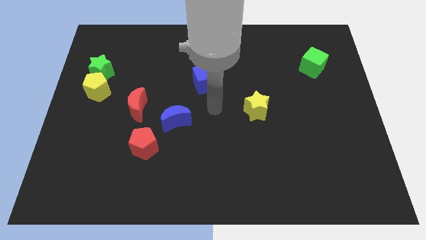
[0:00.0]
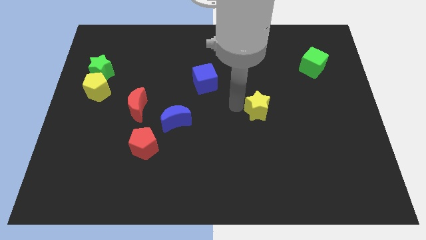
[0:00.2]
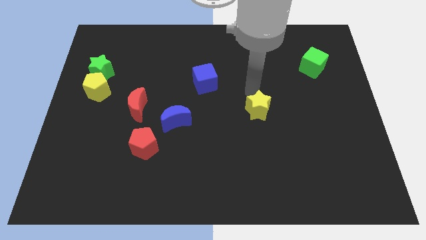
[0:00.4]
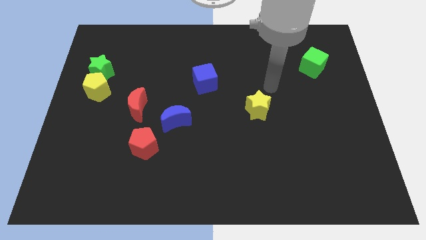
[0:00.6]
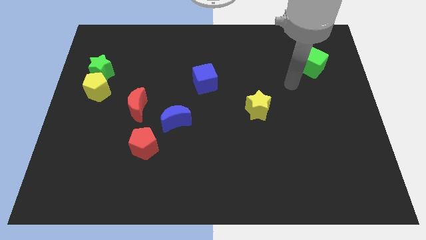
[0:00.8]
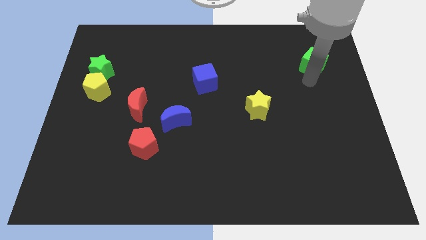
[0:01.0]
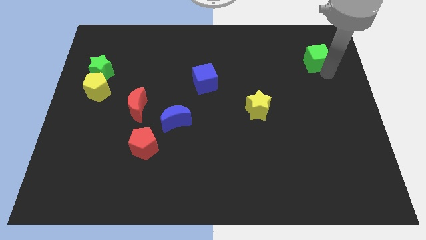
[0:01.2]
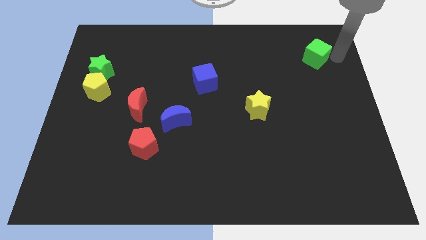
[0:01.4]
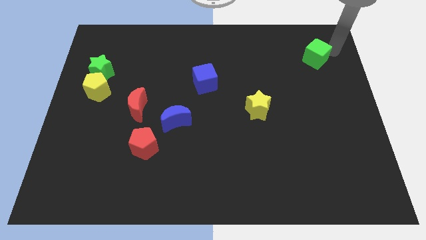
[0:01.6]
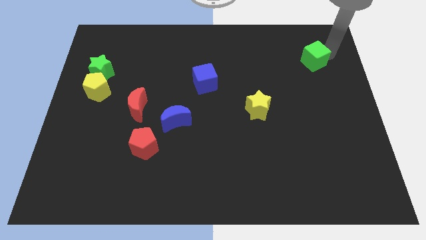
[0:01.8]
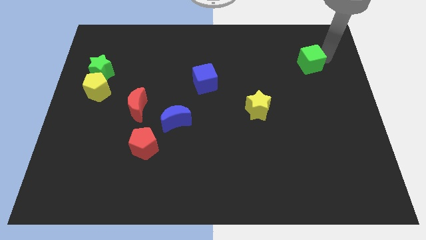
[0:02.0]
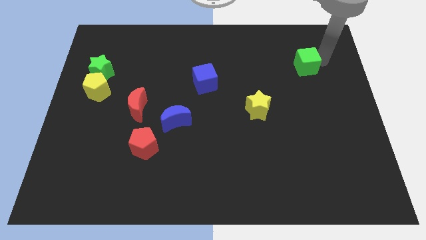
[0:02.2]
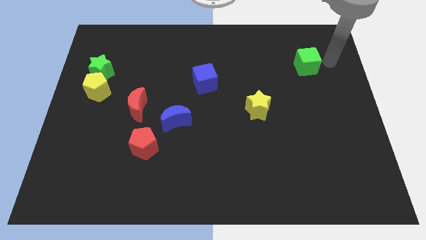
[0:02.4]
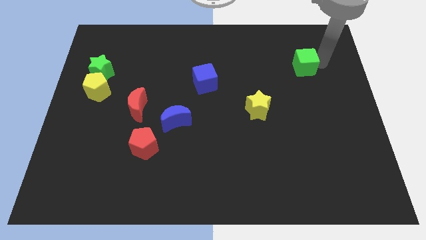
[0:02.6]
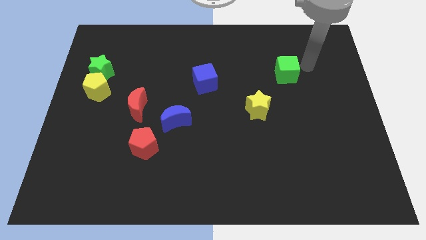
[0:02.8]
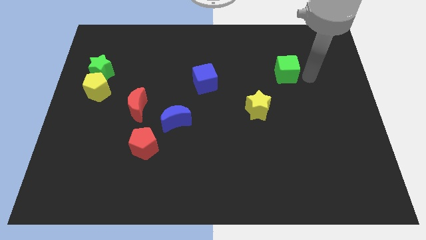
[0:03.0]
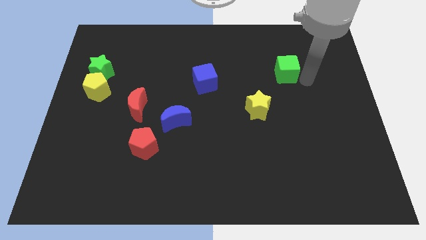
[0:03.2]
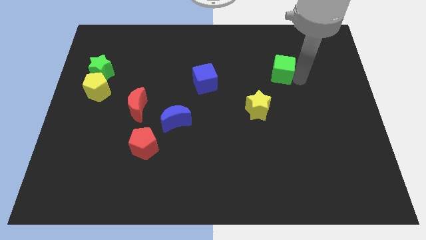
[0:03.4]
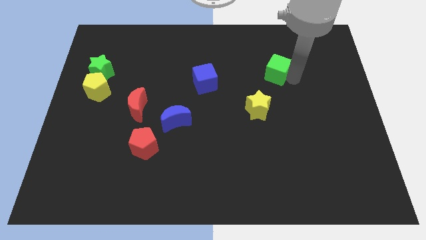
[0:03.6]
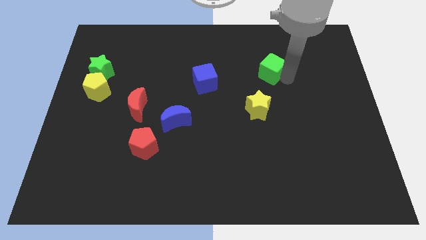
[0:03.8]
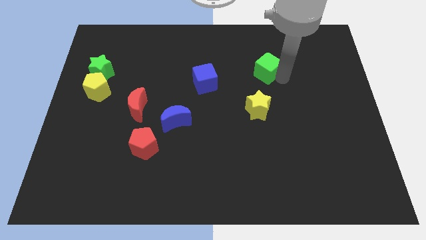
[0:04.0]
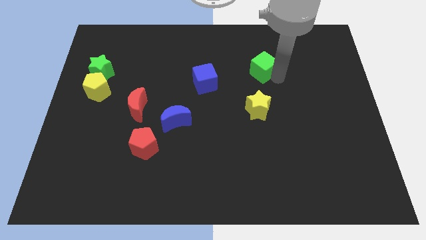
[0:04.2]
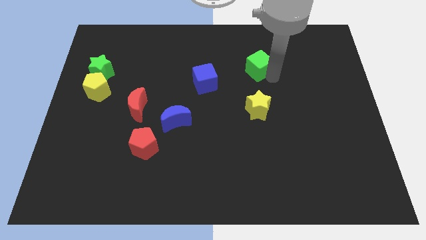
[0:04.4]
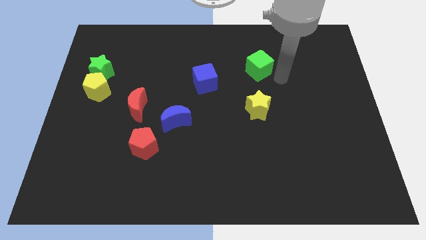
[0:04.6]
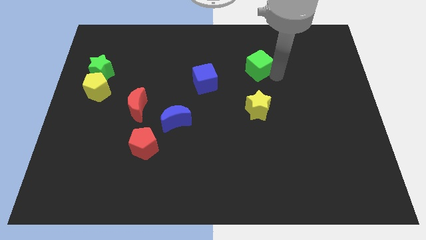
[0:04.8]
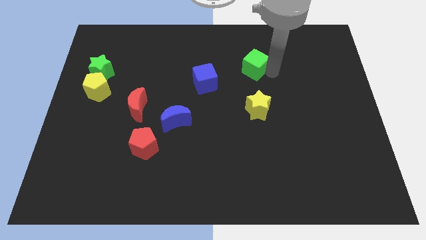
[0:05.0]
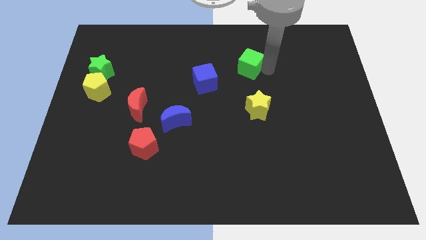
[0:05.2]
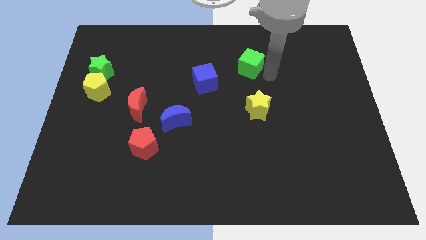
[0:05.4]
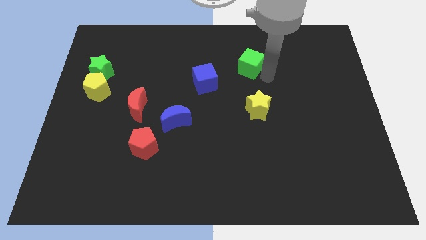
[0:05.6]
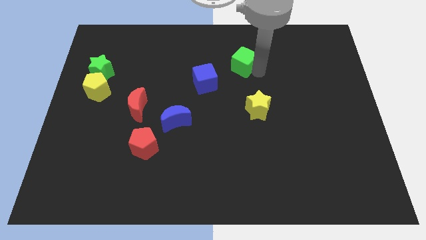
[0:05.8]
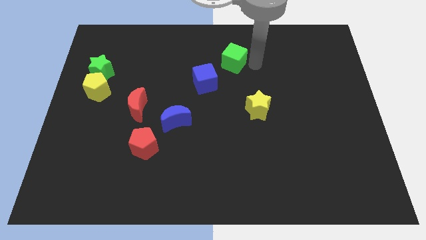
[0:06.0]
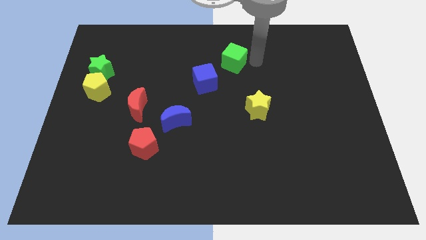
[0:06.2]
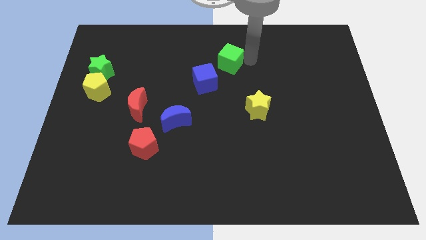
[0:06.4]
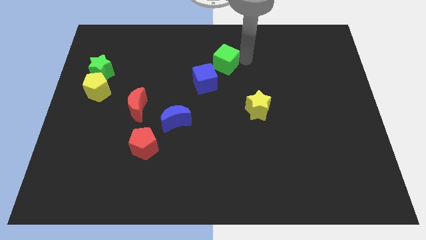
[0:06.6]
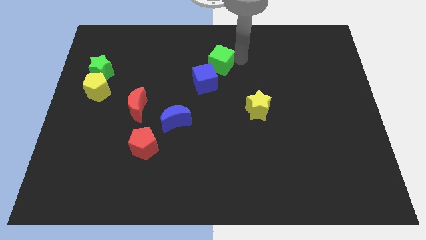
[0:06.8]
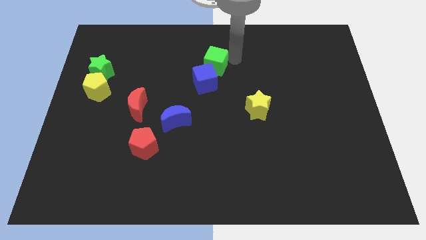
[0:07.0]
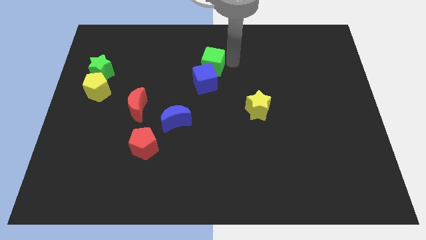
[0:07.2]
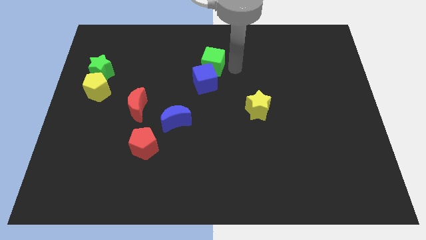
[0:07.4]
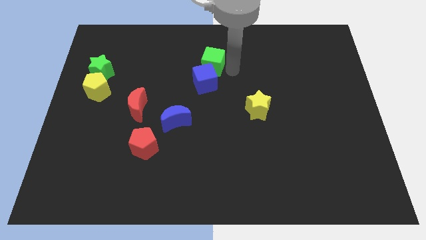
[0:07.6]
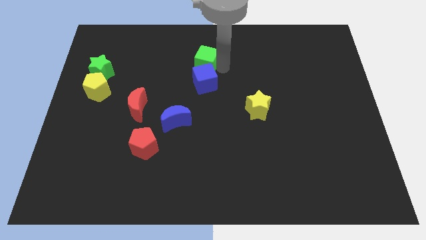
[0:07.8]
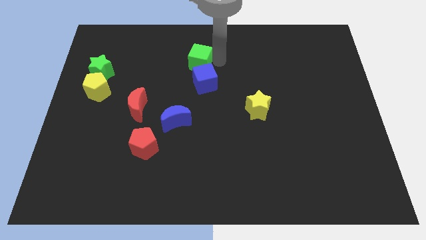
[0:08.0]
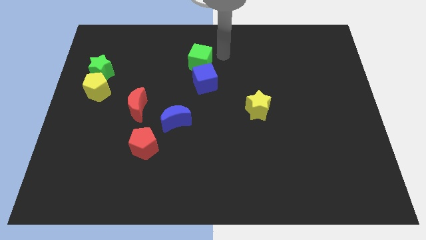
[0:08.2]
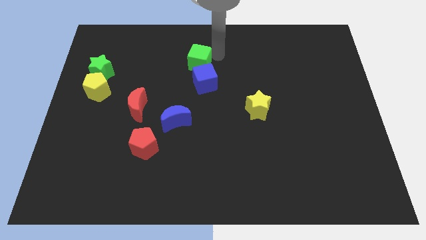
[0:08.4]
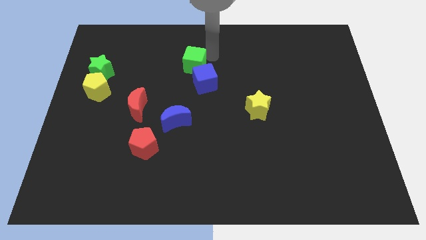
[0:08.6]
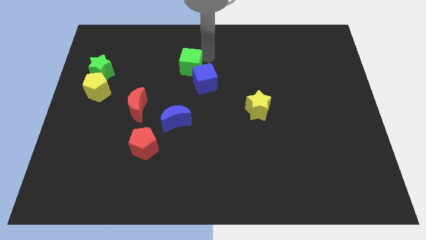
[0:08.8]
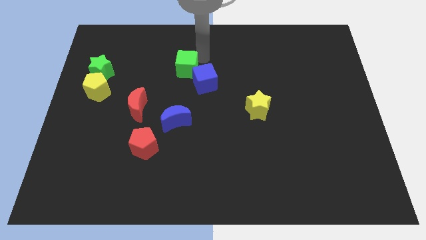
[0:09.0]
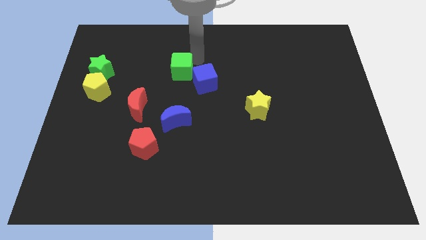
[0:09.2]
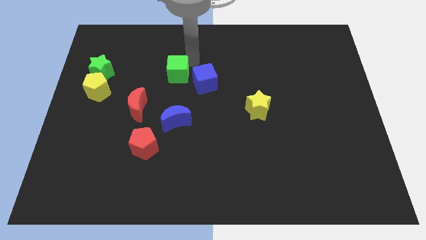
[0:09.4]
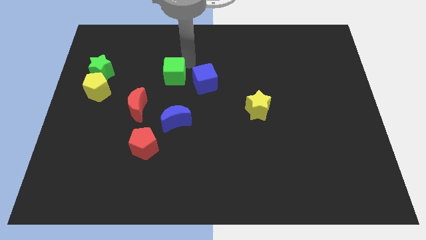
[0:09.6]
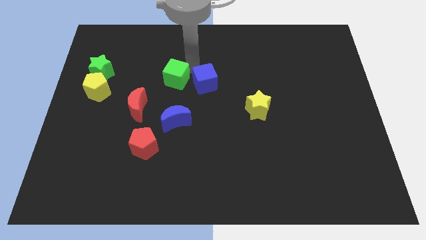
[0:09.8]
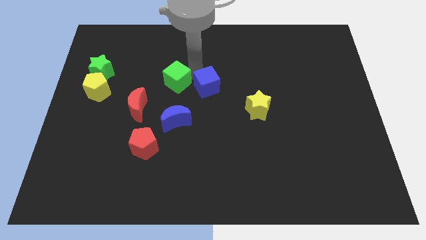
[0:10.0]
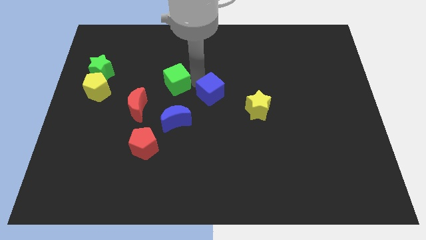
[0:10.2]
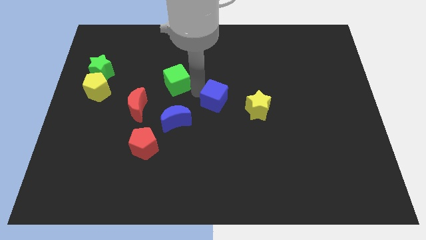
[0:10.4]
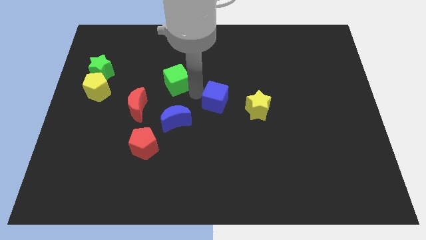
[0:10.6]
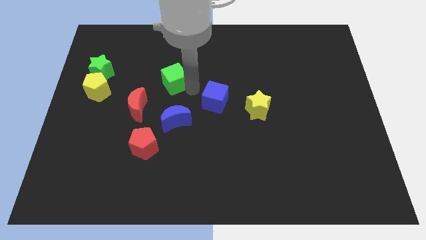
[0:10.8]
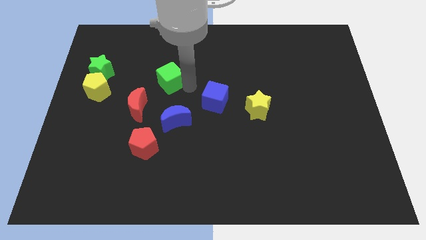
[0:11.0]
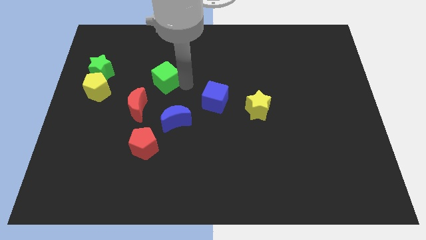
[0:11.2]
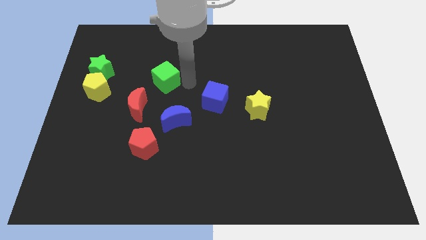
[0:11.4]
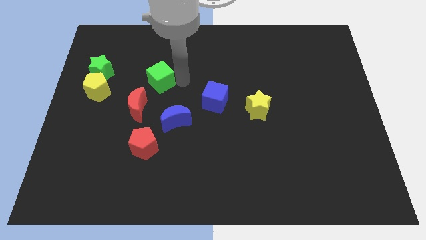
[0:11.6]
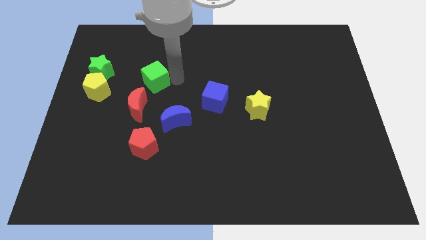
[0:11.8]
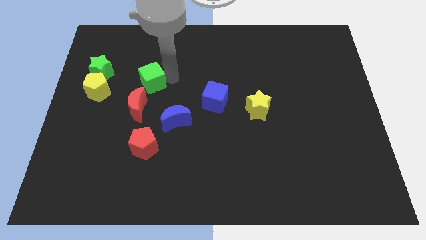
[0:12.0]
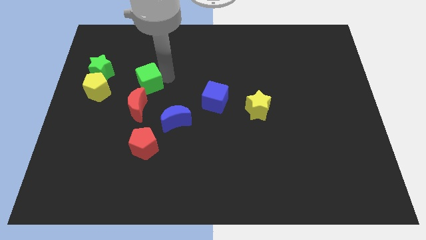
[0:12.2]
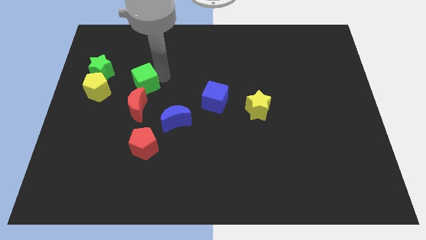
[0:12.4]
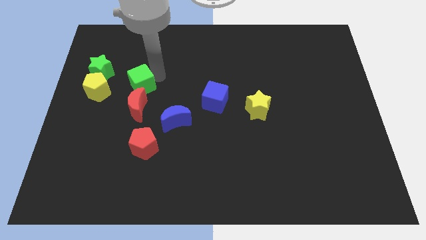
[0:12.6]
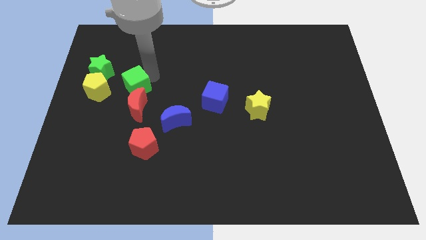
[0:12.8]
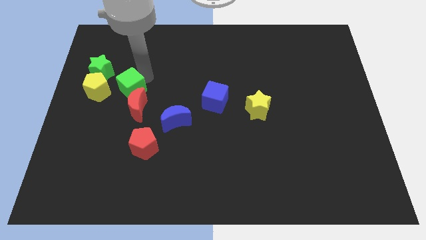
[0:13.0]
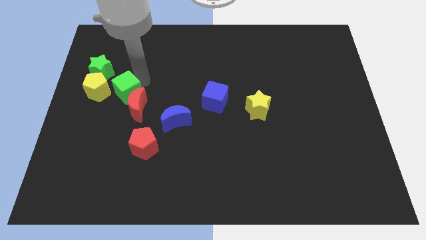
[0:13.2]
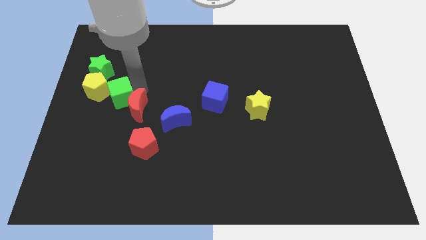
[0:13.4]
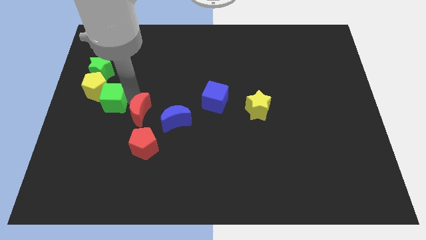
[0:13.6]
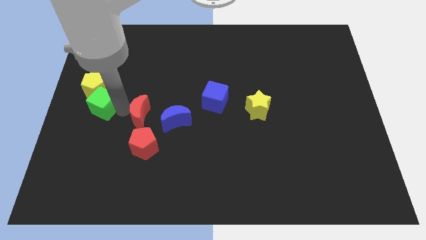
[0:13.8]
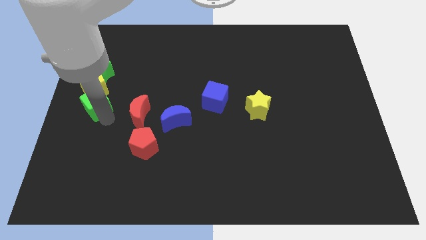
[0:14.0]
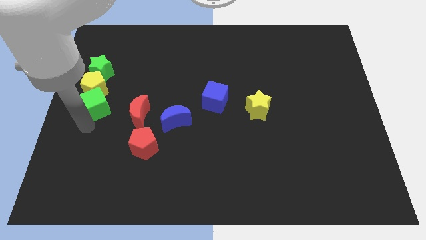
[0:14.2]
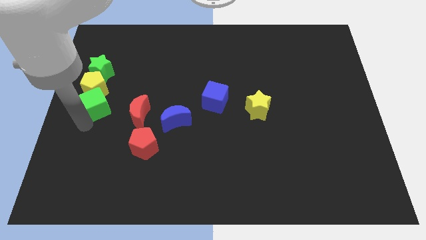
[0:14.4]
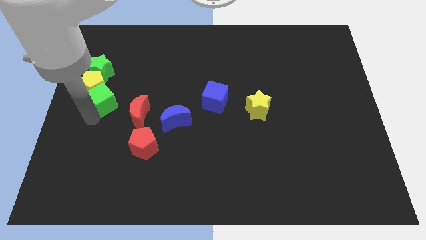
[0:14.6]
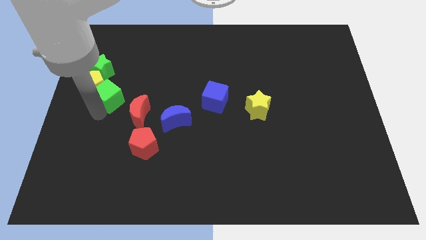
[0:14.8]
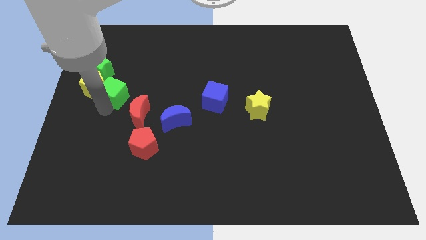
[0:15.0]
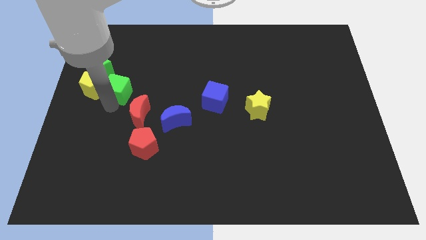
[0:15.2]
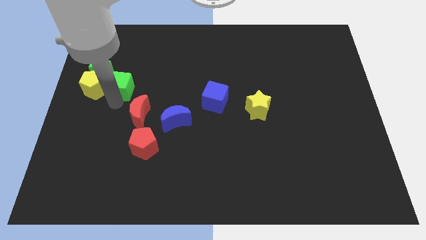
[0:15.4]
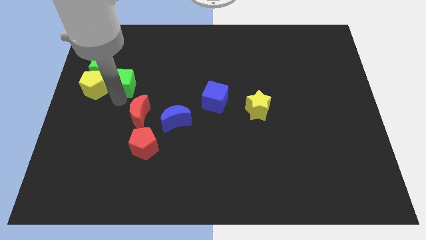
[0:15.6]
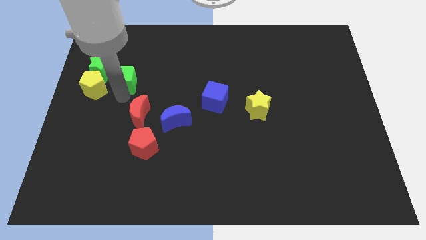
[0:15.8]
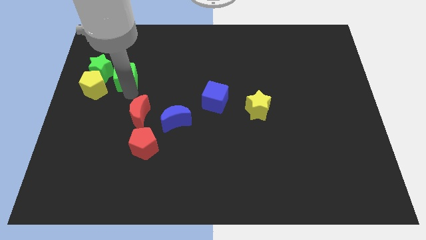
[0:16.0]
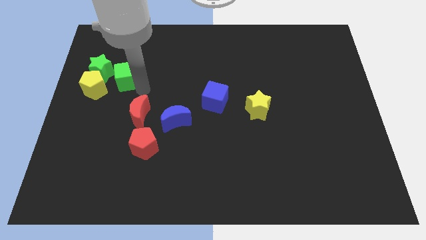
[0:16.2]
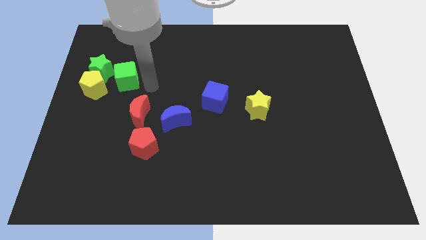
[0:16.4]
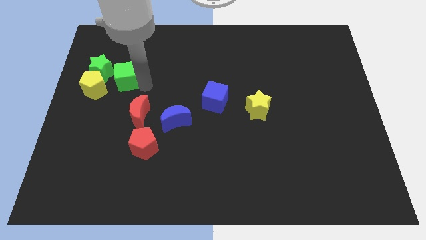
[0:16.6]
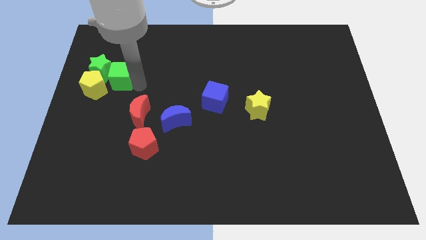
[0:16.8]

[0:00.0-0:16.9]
slide the green cube close to the green star
